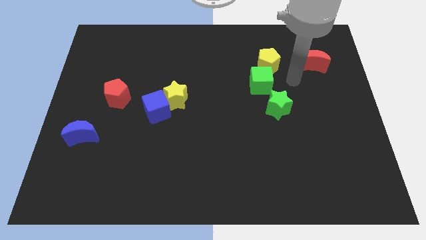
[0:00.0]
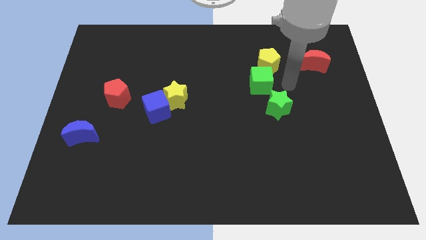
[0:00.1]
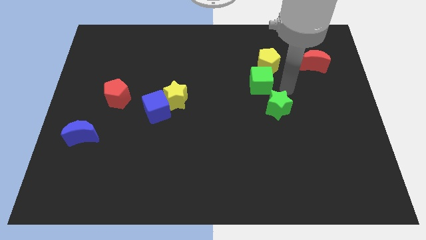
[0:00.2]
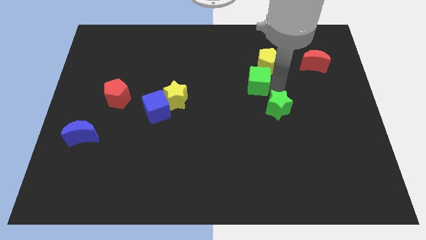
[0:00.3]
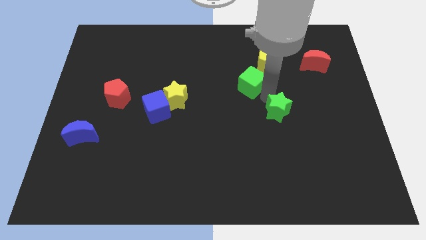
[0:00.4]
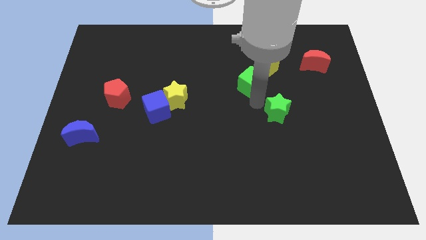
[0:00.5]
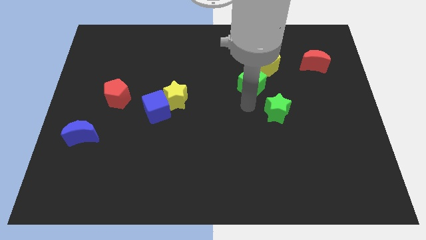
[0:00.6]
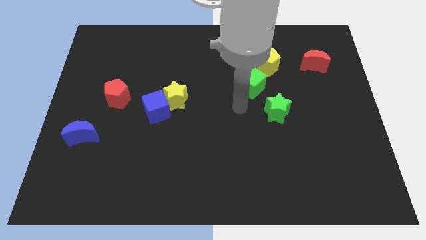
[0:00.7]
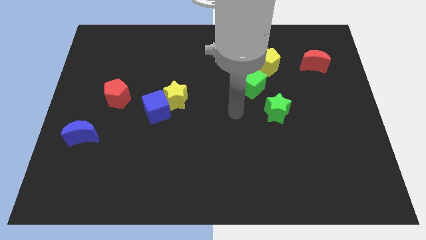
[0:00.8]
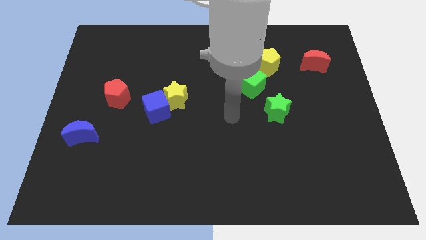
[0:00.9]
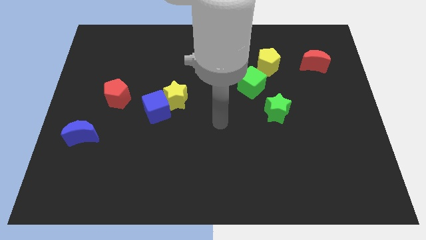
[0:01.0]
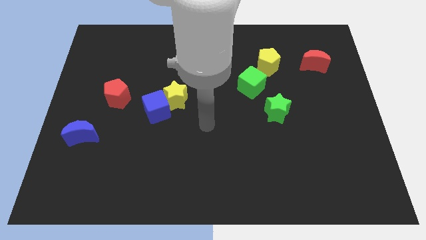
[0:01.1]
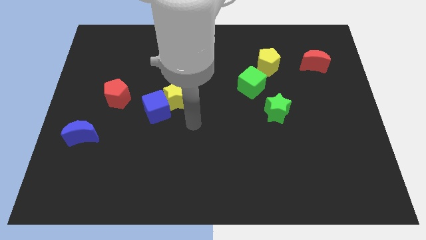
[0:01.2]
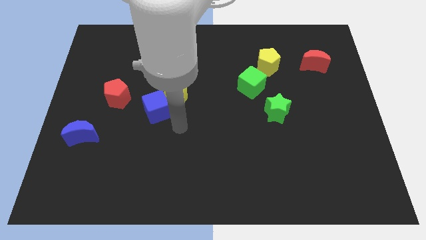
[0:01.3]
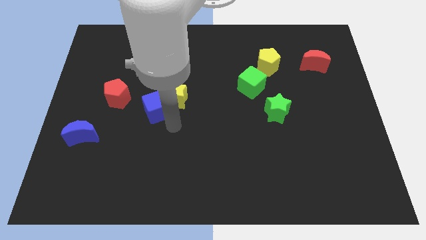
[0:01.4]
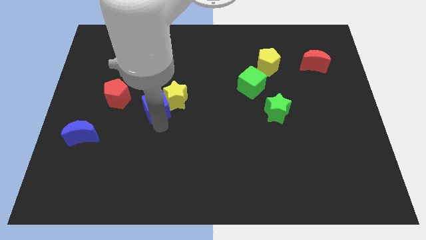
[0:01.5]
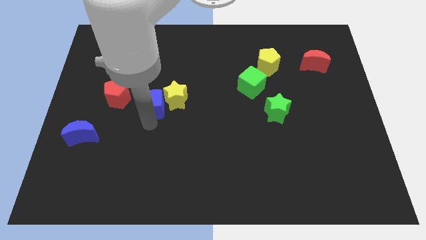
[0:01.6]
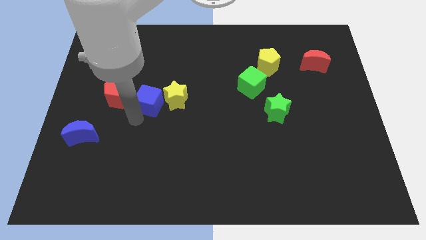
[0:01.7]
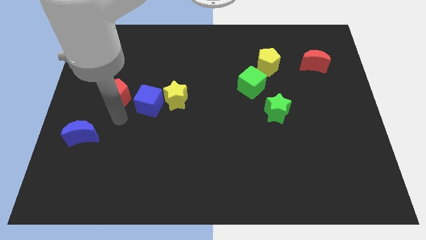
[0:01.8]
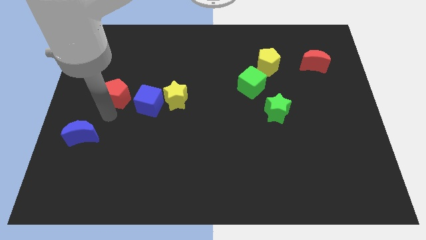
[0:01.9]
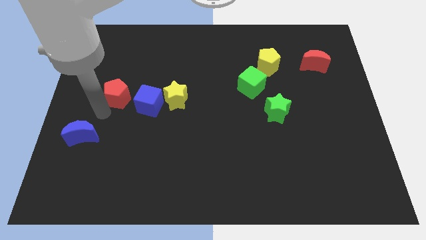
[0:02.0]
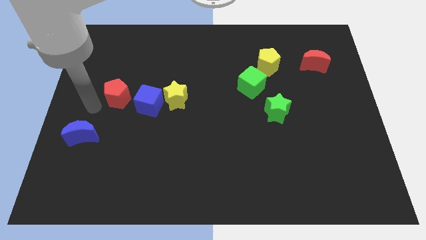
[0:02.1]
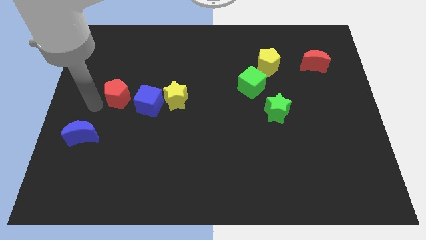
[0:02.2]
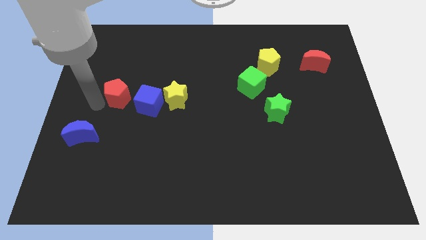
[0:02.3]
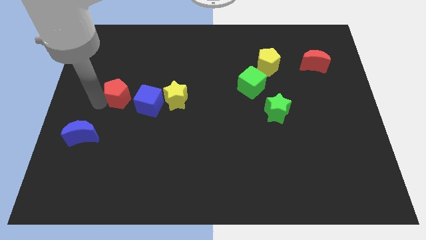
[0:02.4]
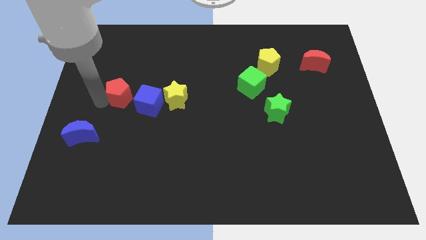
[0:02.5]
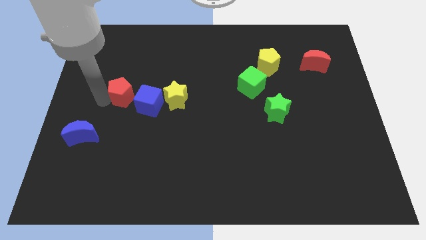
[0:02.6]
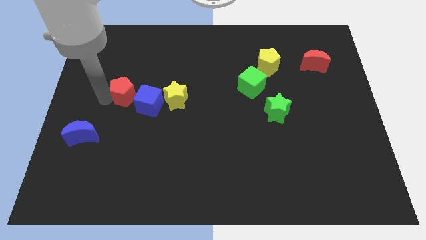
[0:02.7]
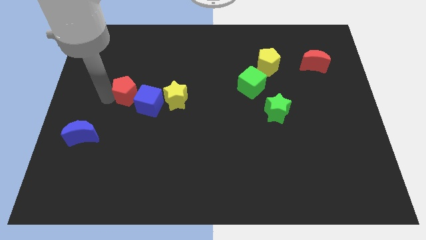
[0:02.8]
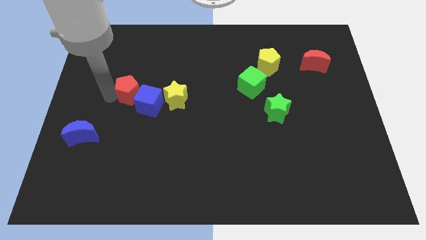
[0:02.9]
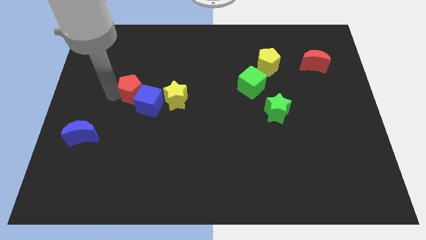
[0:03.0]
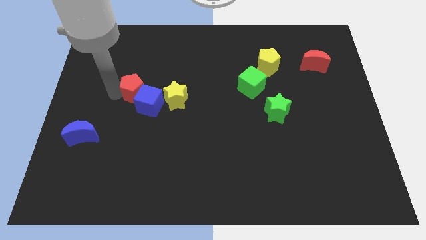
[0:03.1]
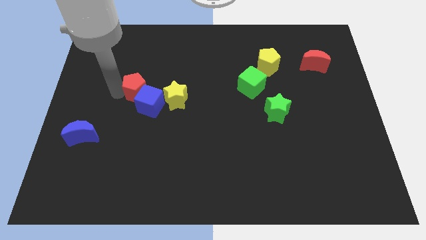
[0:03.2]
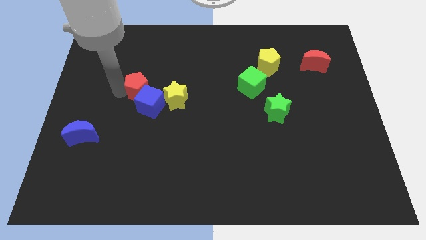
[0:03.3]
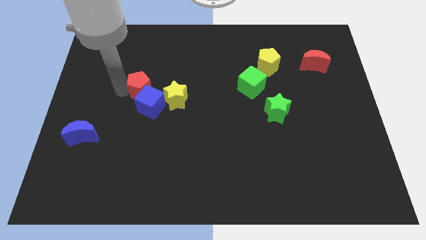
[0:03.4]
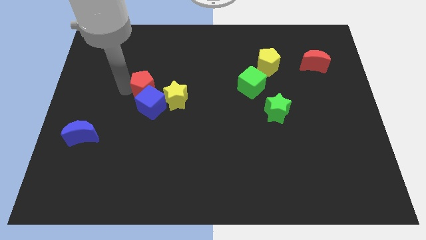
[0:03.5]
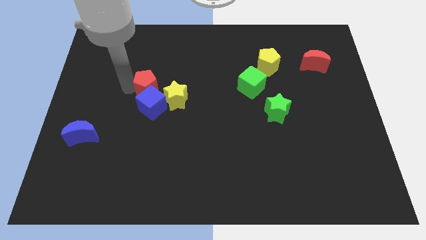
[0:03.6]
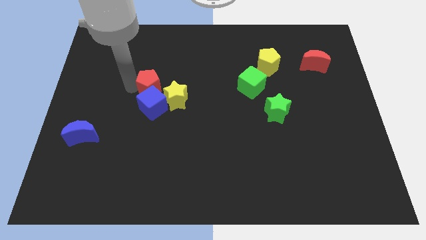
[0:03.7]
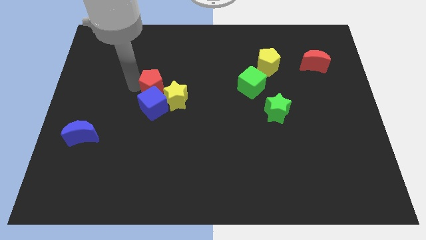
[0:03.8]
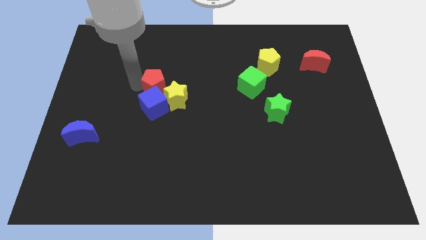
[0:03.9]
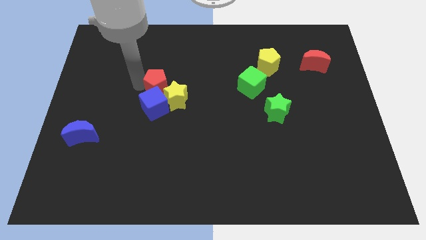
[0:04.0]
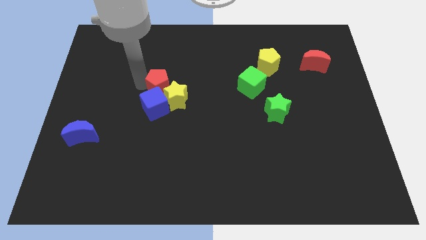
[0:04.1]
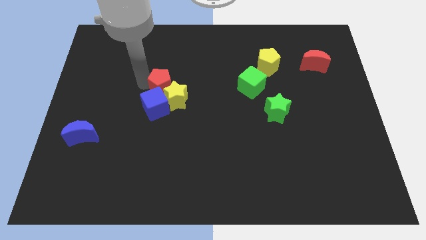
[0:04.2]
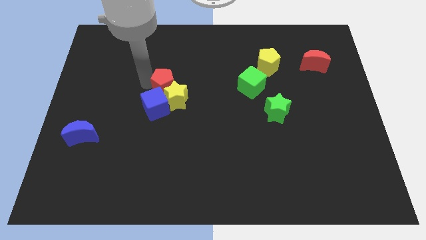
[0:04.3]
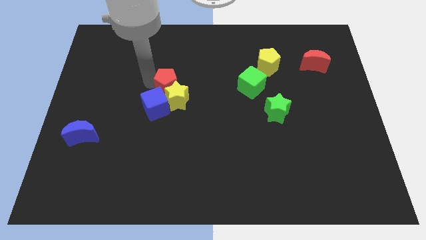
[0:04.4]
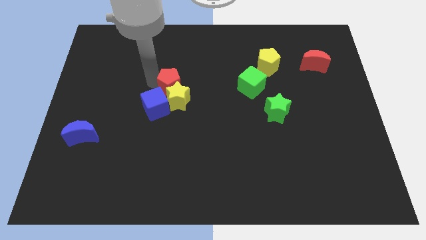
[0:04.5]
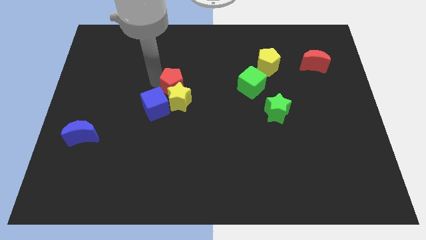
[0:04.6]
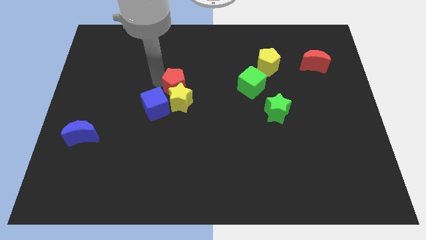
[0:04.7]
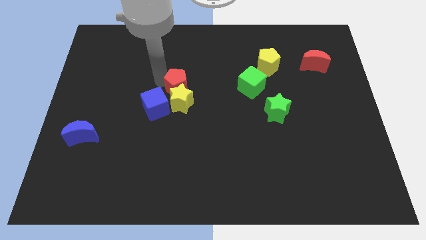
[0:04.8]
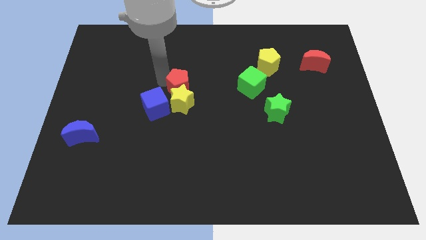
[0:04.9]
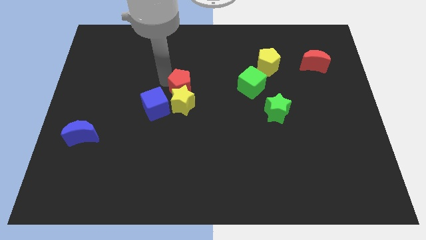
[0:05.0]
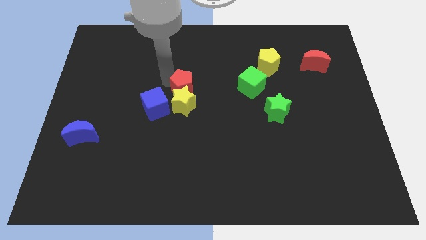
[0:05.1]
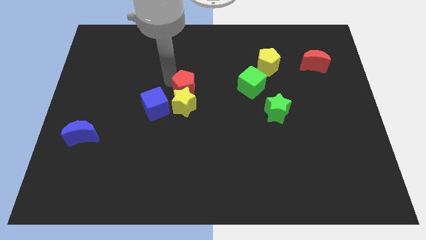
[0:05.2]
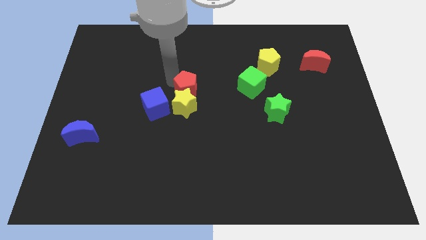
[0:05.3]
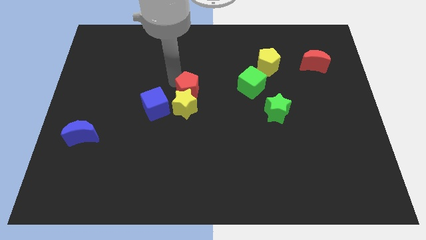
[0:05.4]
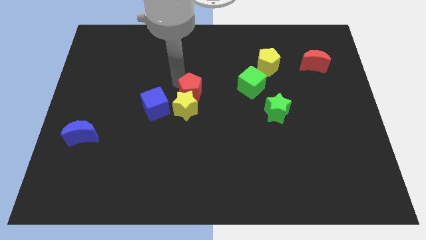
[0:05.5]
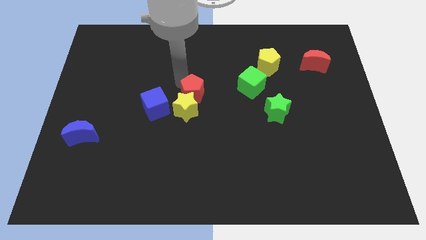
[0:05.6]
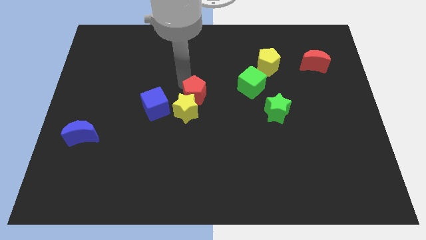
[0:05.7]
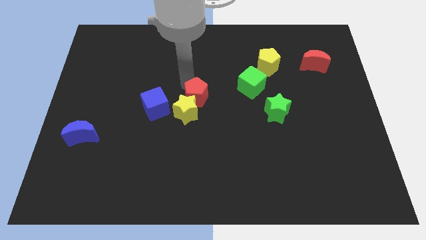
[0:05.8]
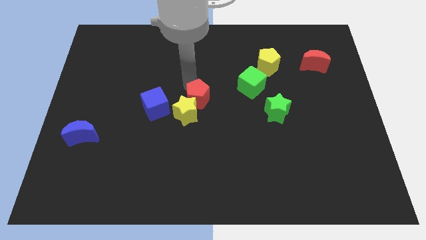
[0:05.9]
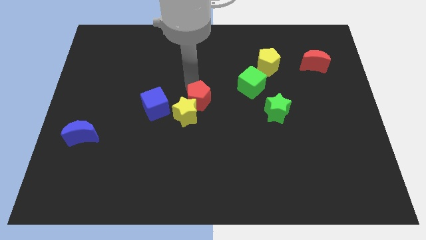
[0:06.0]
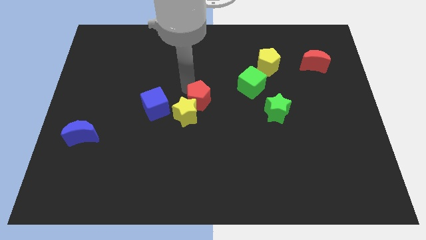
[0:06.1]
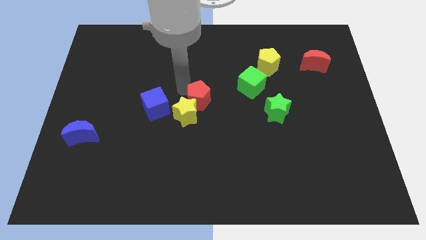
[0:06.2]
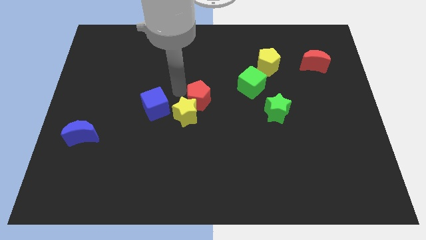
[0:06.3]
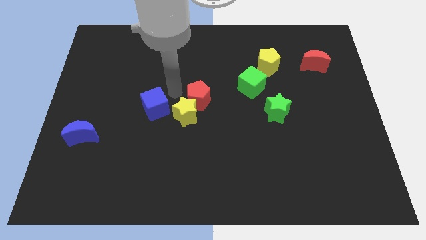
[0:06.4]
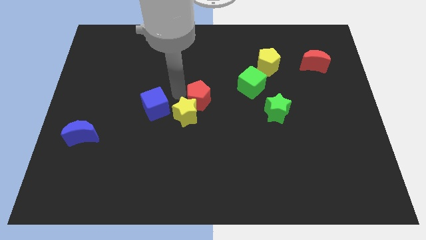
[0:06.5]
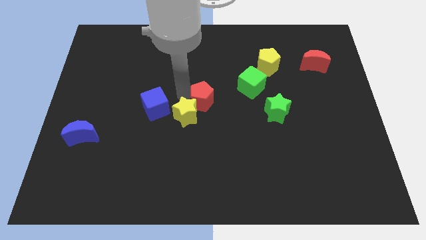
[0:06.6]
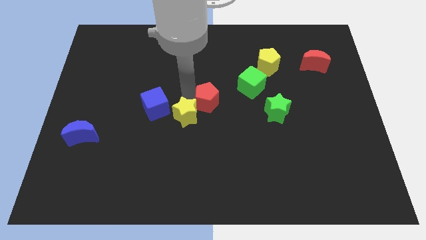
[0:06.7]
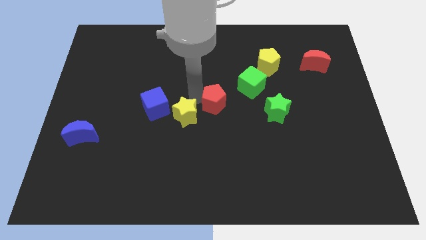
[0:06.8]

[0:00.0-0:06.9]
move the red pentagon left of the green star
